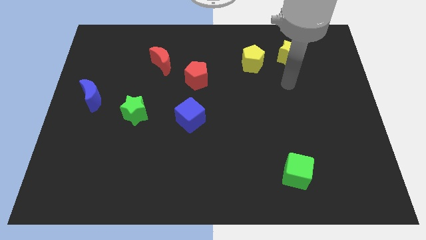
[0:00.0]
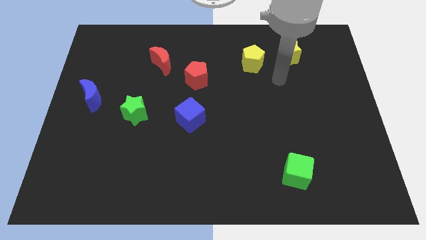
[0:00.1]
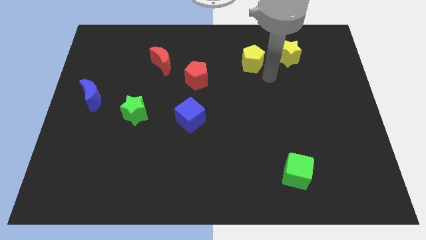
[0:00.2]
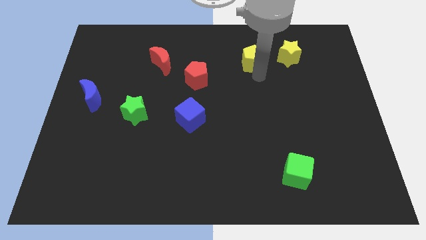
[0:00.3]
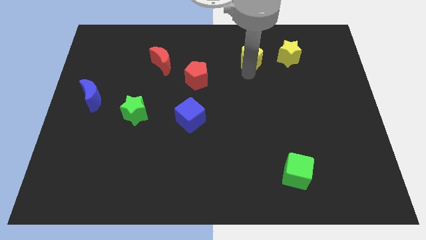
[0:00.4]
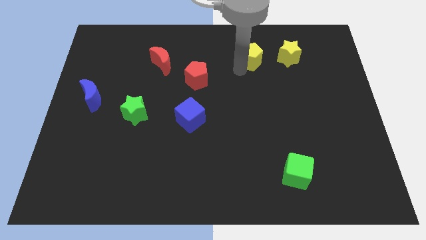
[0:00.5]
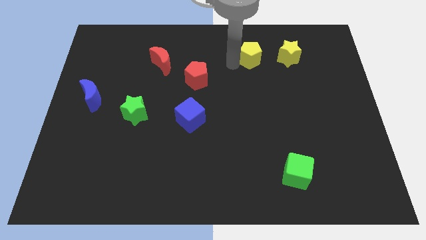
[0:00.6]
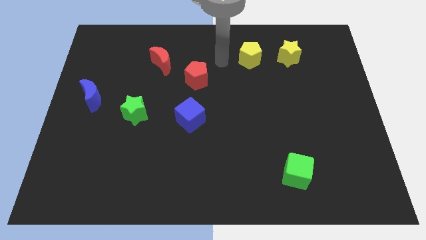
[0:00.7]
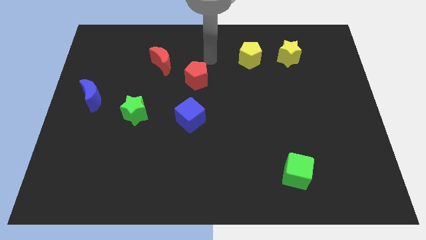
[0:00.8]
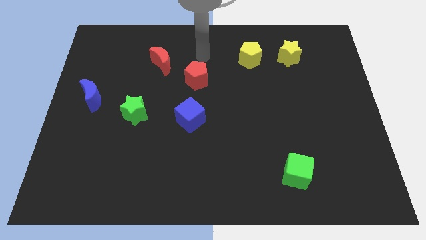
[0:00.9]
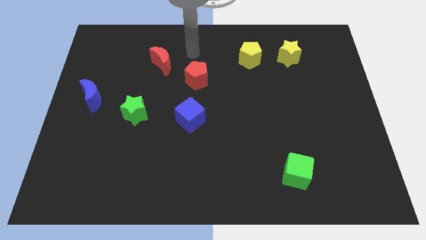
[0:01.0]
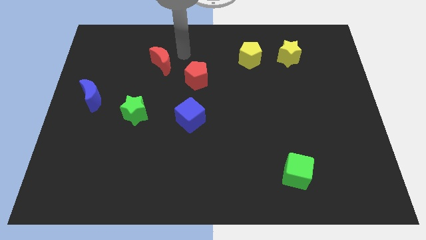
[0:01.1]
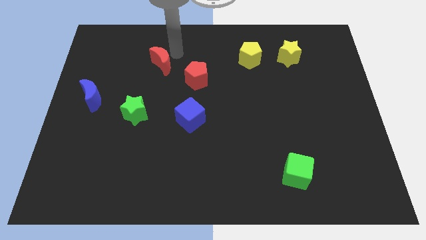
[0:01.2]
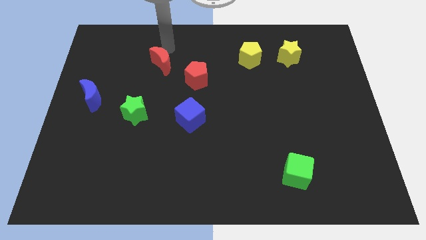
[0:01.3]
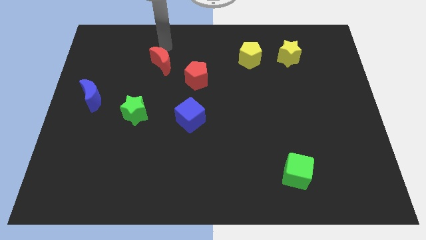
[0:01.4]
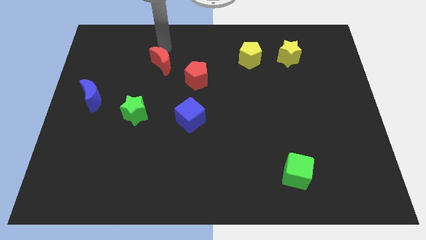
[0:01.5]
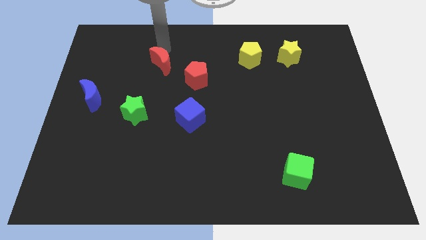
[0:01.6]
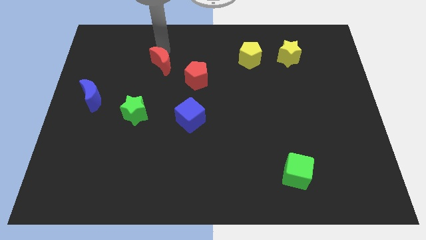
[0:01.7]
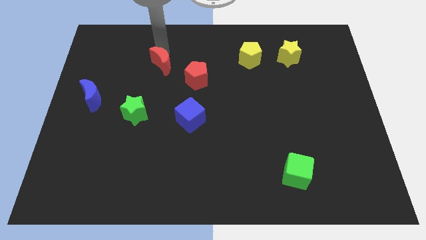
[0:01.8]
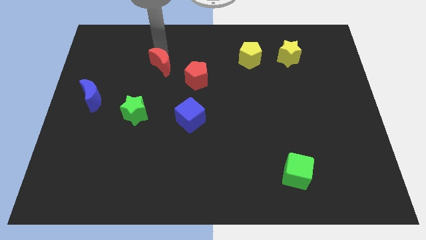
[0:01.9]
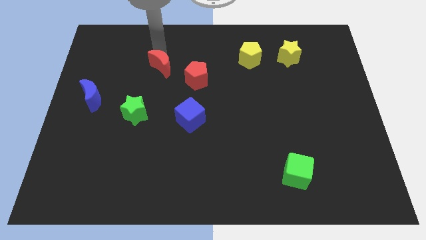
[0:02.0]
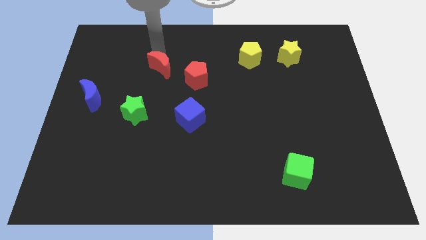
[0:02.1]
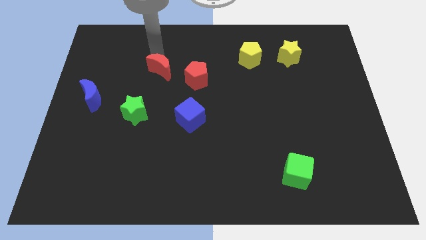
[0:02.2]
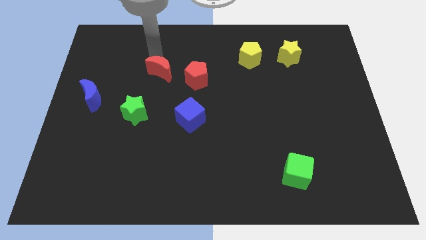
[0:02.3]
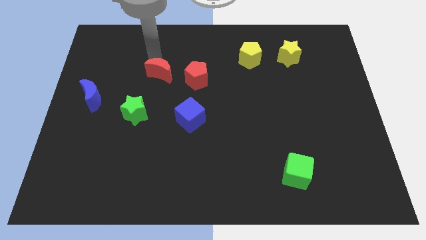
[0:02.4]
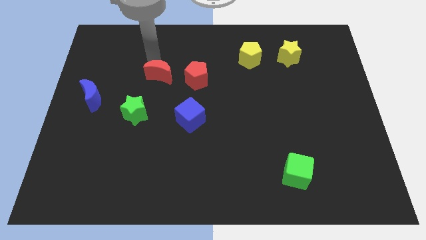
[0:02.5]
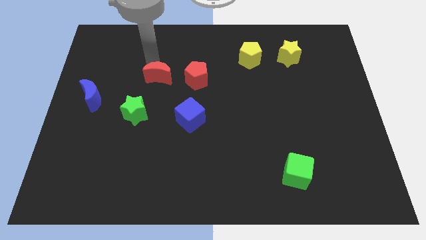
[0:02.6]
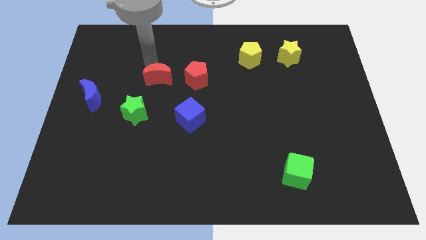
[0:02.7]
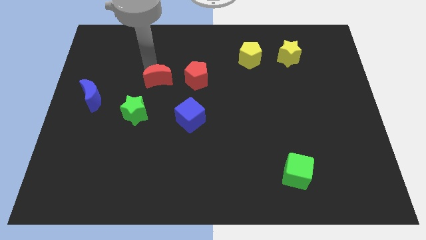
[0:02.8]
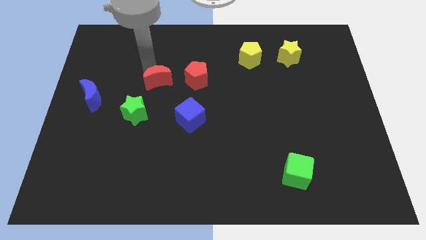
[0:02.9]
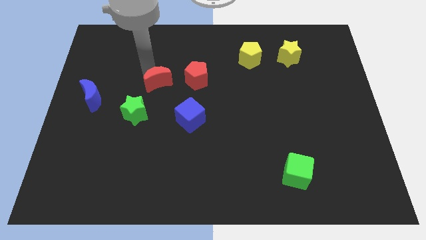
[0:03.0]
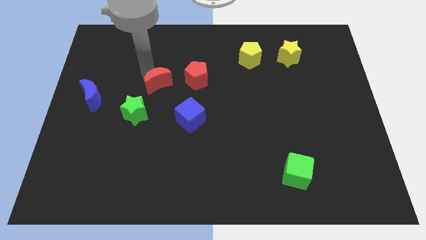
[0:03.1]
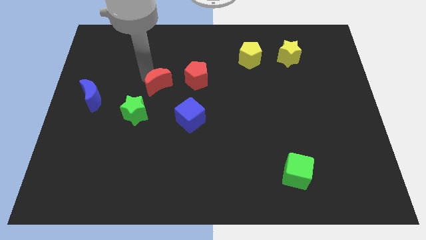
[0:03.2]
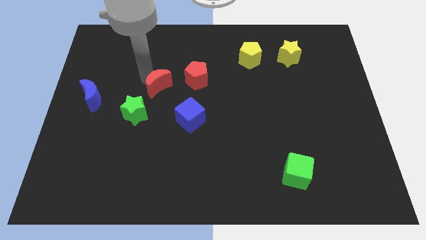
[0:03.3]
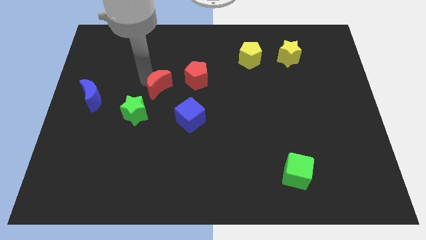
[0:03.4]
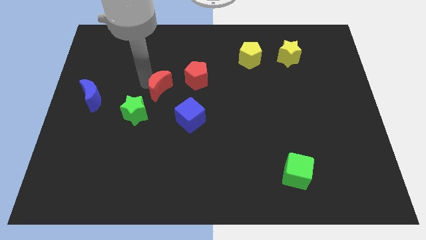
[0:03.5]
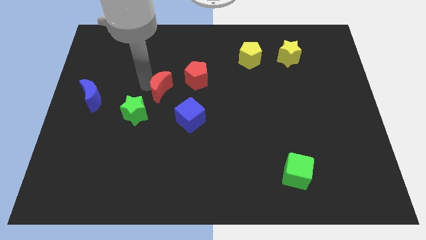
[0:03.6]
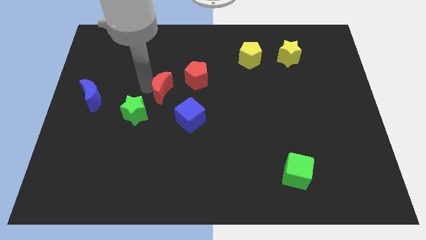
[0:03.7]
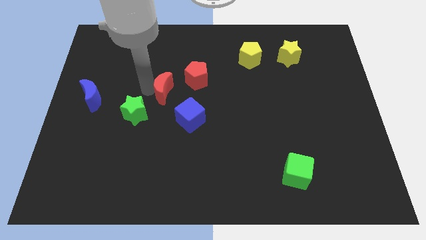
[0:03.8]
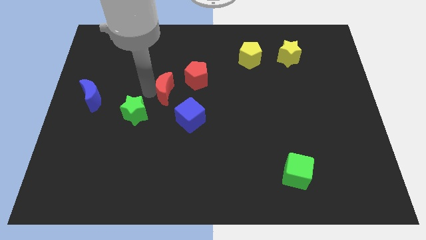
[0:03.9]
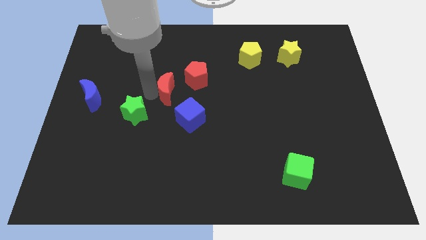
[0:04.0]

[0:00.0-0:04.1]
move the red moon a little bit down and to the right

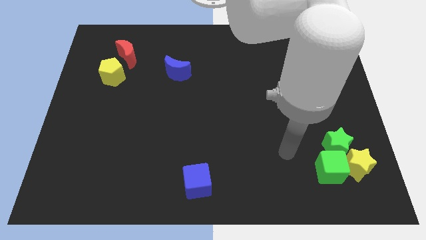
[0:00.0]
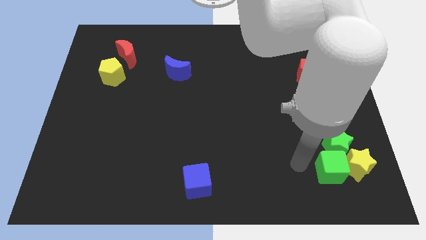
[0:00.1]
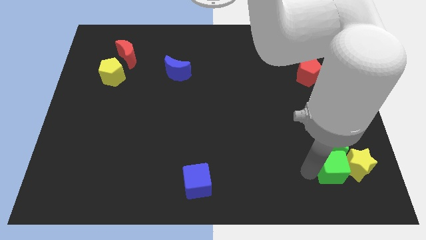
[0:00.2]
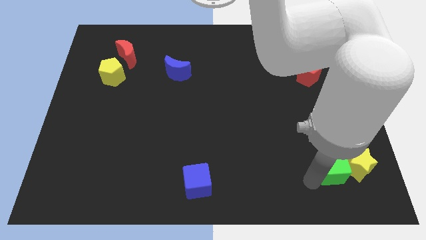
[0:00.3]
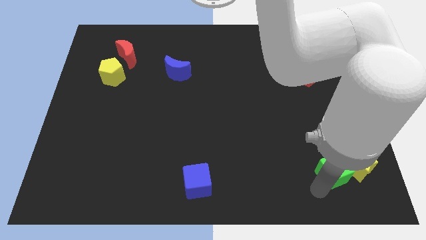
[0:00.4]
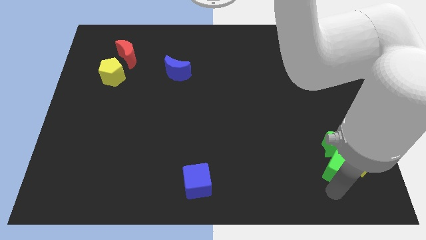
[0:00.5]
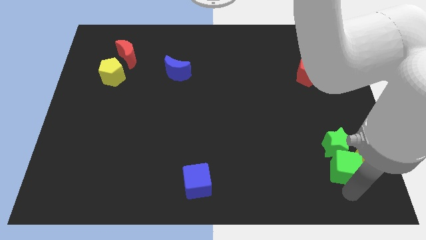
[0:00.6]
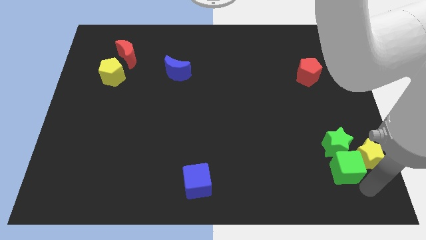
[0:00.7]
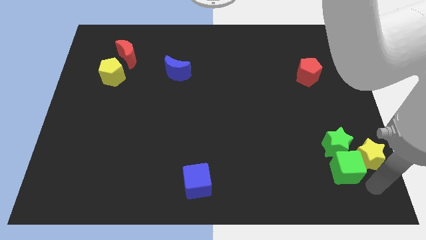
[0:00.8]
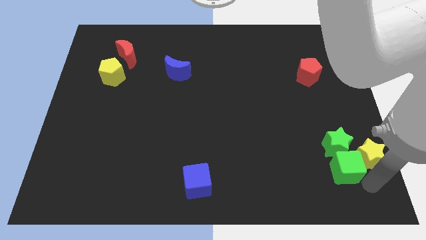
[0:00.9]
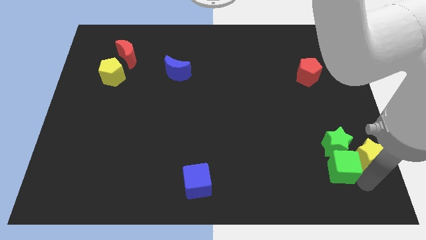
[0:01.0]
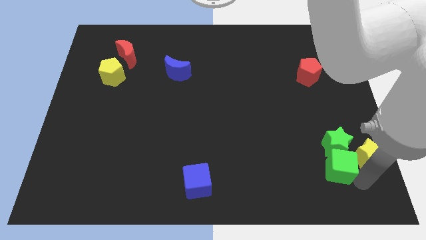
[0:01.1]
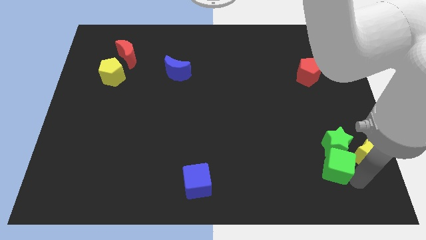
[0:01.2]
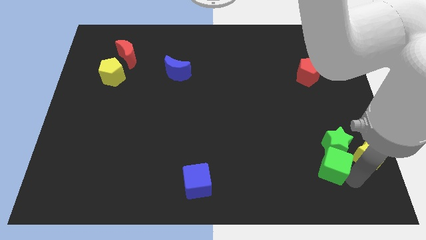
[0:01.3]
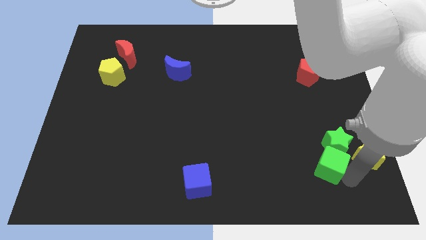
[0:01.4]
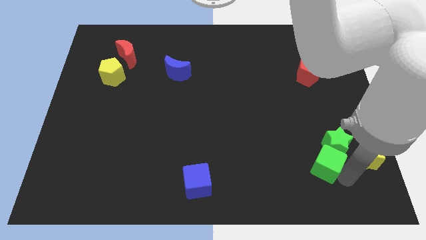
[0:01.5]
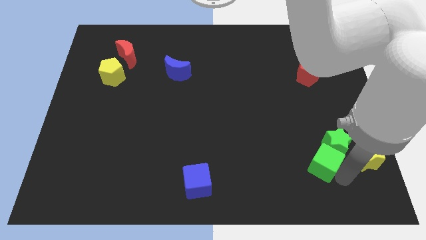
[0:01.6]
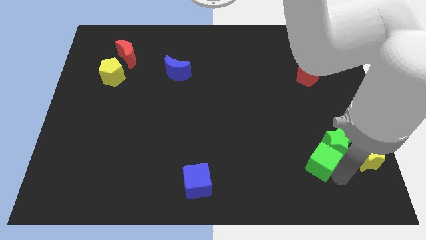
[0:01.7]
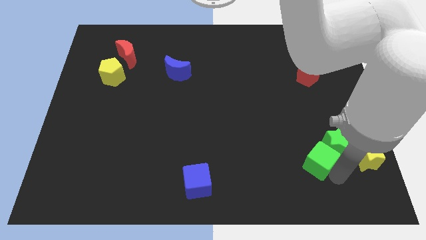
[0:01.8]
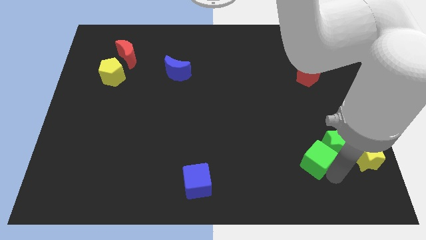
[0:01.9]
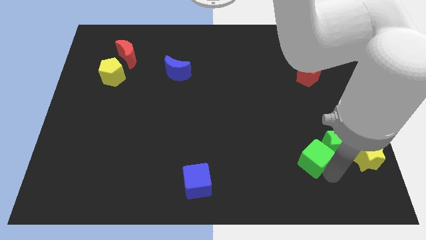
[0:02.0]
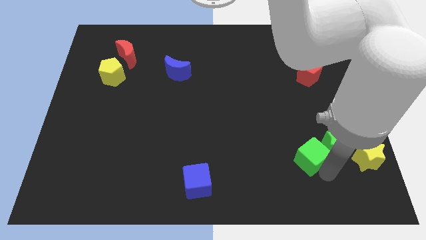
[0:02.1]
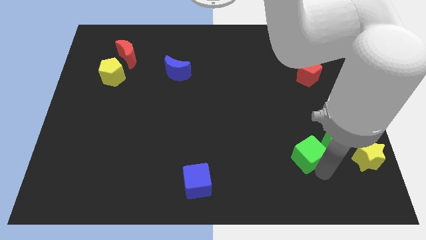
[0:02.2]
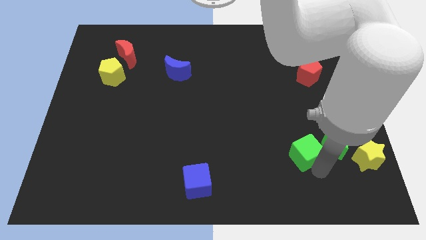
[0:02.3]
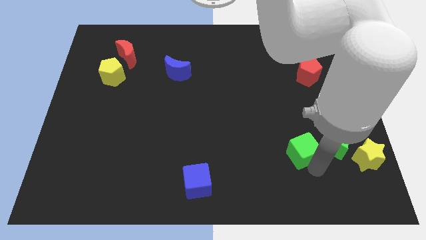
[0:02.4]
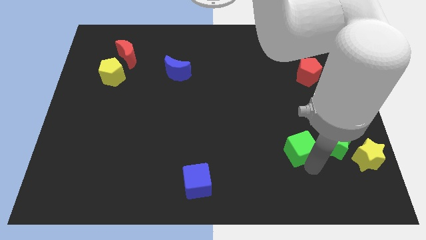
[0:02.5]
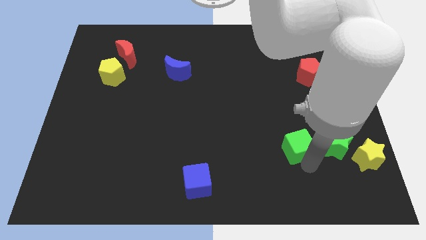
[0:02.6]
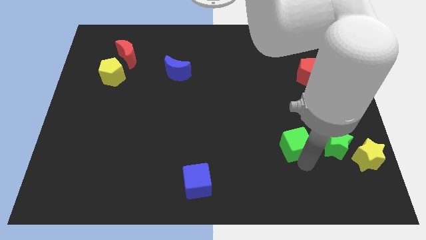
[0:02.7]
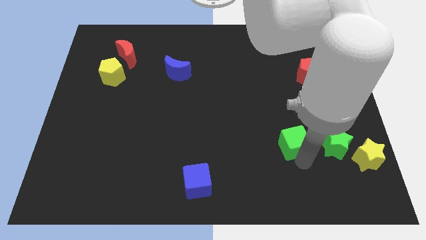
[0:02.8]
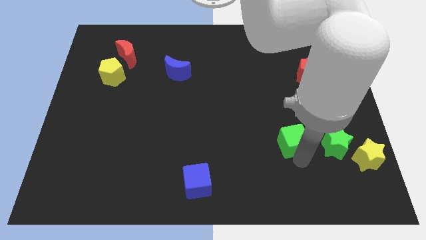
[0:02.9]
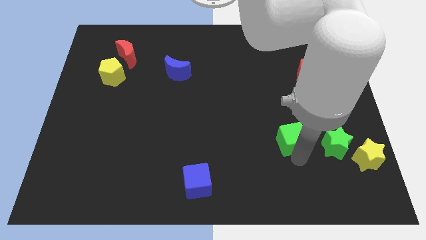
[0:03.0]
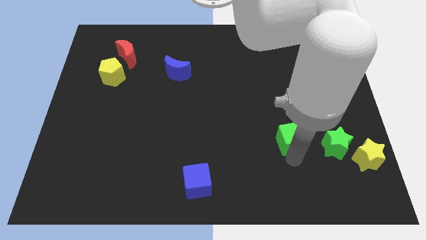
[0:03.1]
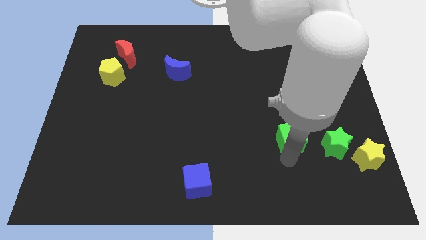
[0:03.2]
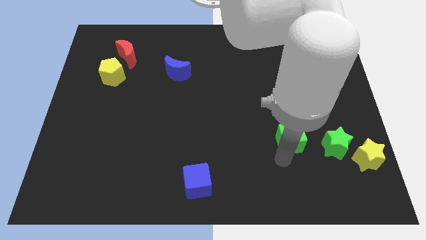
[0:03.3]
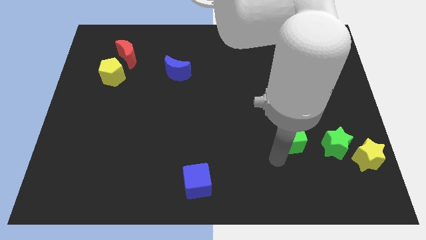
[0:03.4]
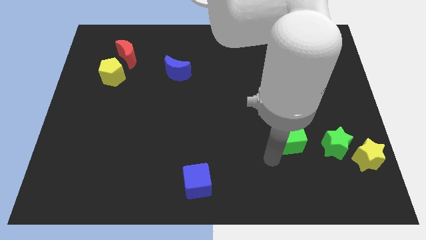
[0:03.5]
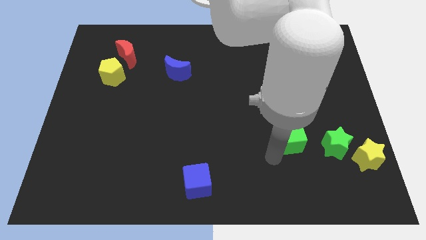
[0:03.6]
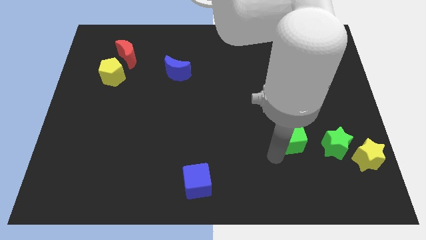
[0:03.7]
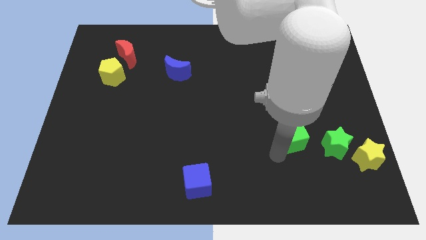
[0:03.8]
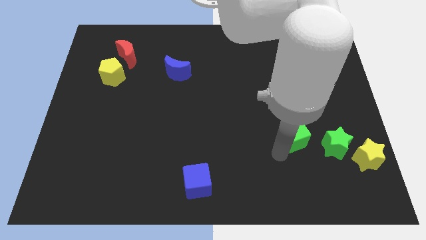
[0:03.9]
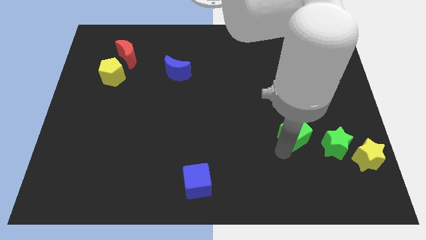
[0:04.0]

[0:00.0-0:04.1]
push the green cube slightly up
